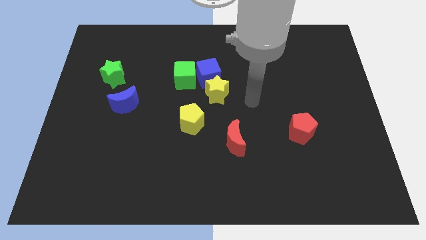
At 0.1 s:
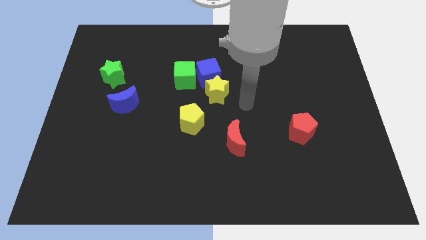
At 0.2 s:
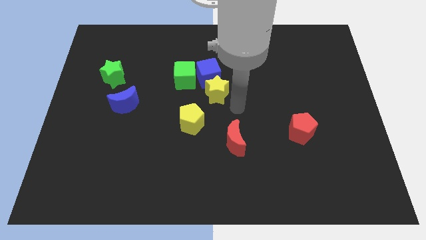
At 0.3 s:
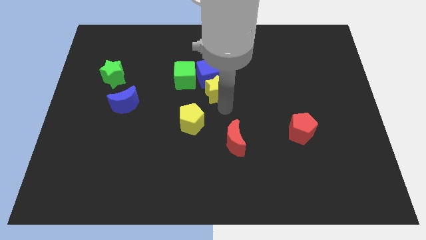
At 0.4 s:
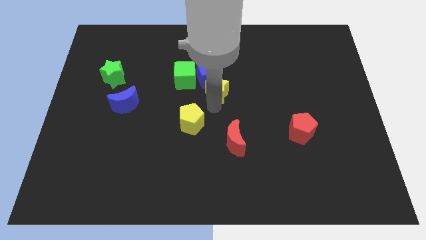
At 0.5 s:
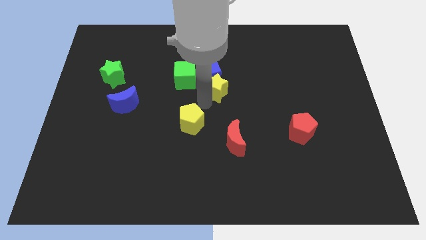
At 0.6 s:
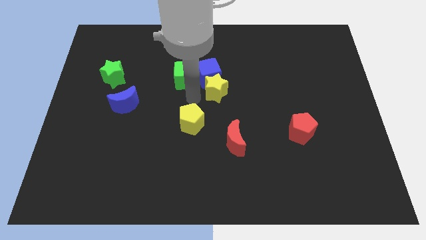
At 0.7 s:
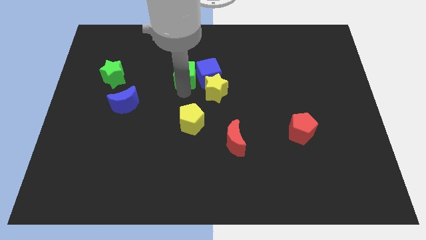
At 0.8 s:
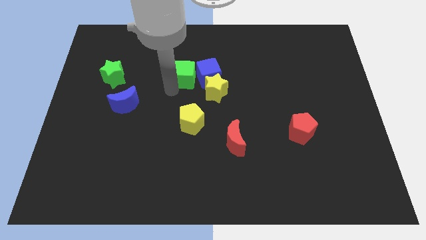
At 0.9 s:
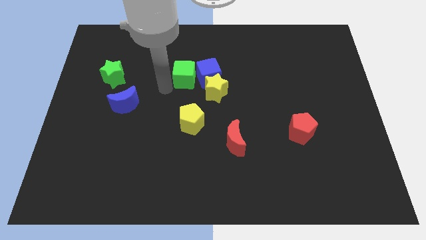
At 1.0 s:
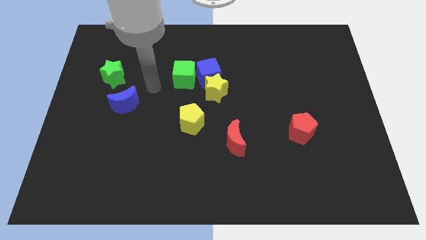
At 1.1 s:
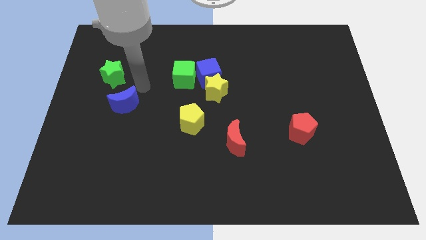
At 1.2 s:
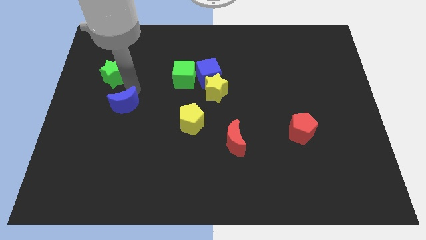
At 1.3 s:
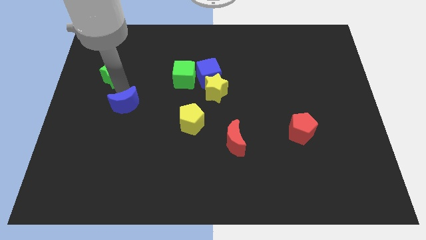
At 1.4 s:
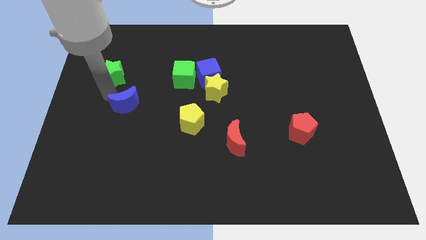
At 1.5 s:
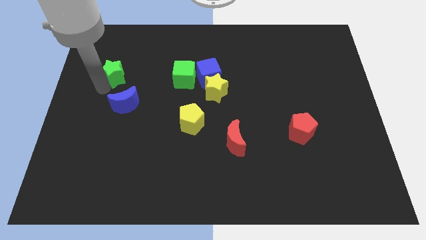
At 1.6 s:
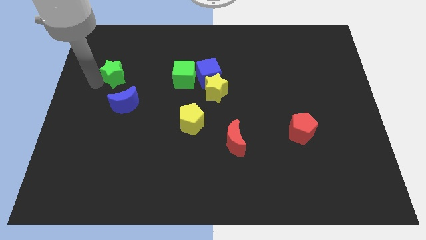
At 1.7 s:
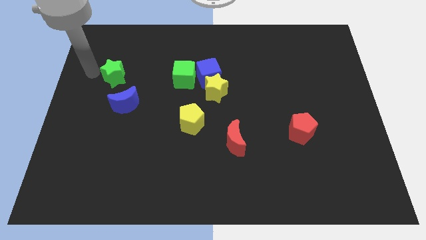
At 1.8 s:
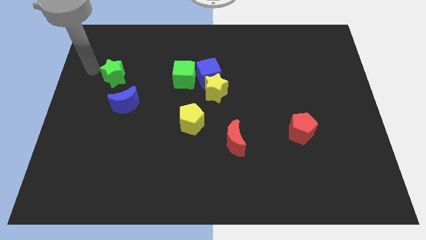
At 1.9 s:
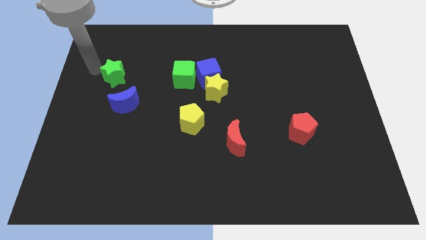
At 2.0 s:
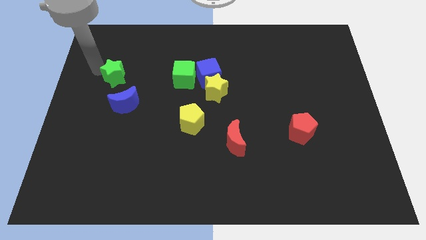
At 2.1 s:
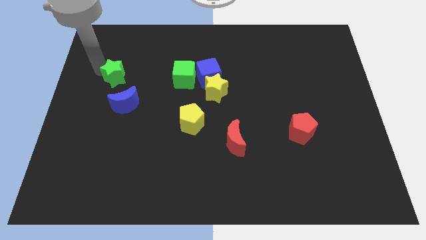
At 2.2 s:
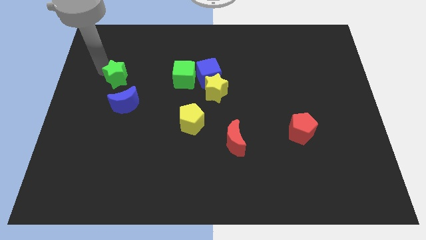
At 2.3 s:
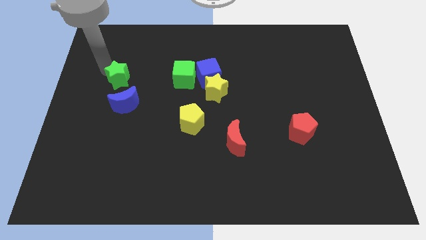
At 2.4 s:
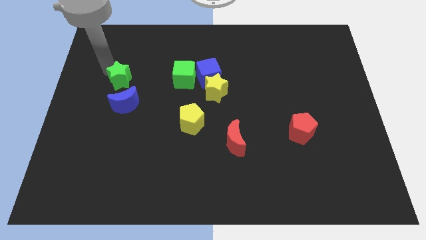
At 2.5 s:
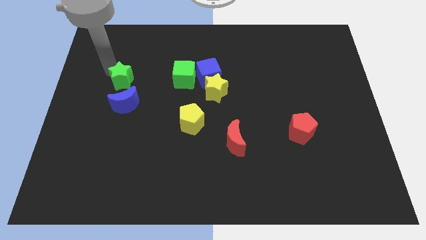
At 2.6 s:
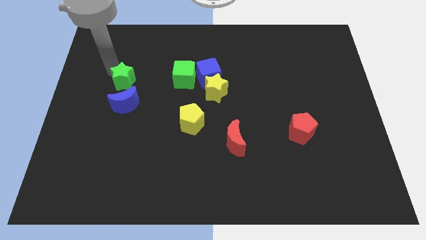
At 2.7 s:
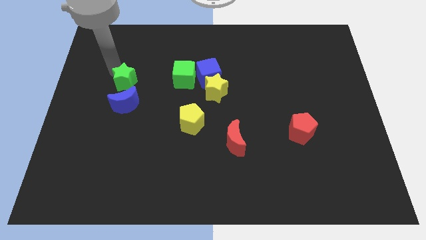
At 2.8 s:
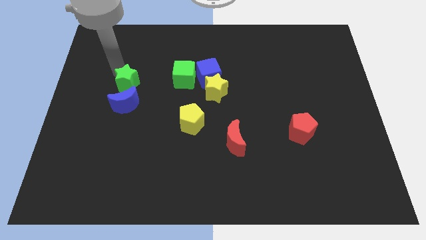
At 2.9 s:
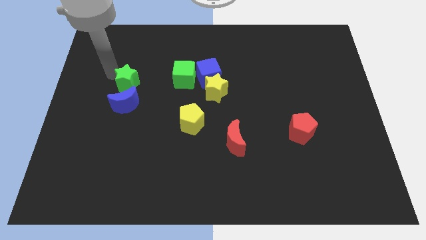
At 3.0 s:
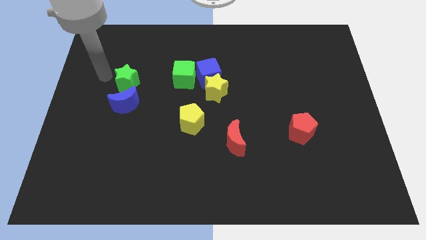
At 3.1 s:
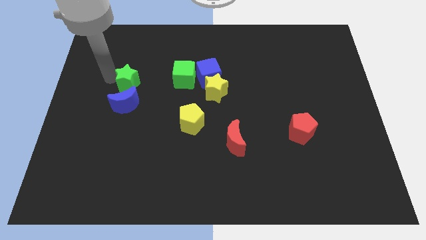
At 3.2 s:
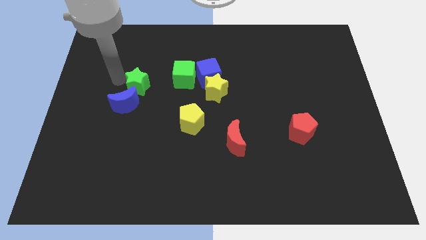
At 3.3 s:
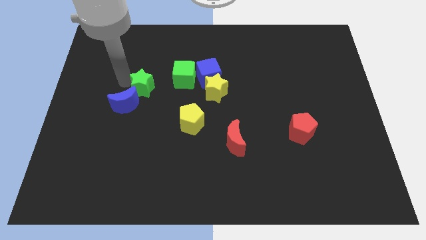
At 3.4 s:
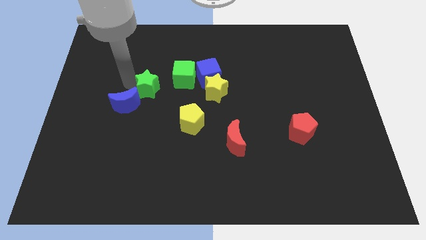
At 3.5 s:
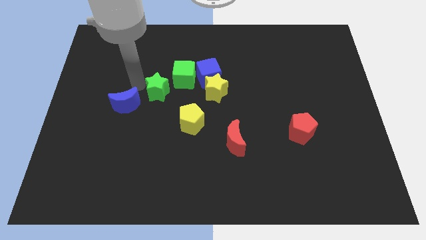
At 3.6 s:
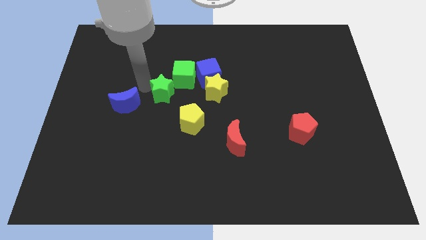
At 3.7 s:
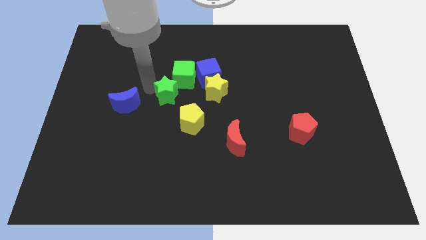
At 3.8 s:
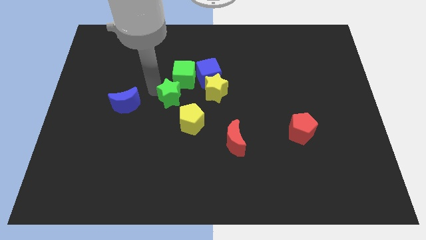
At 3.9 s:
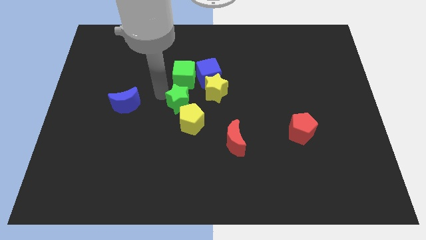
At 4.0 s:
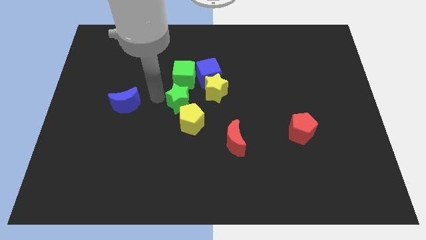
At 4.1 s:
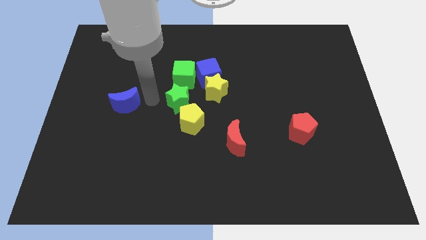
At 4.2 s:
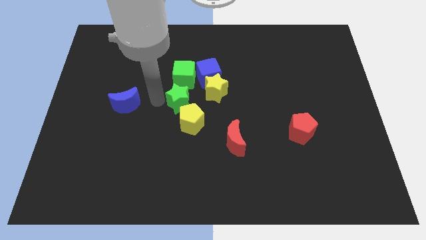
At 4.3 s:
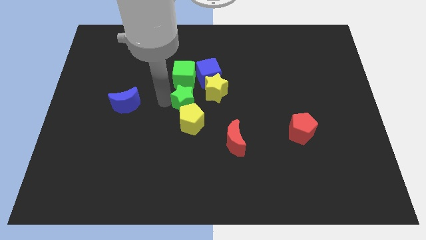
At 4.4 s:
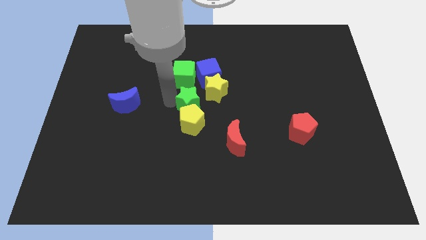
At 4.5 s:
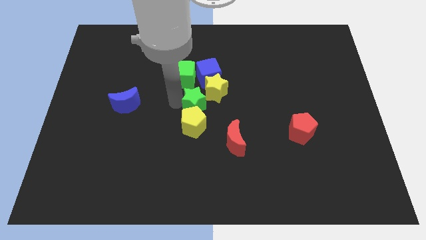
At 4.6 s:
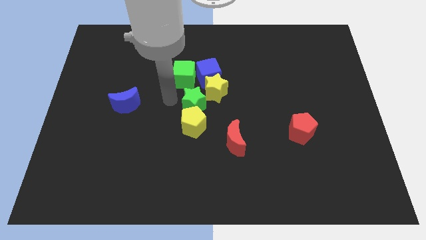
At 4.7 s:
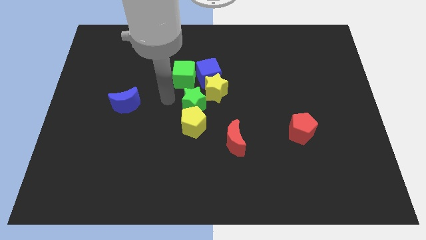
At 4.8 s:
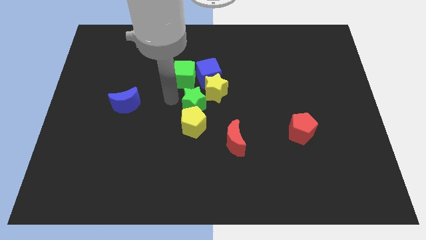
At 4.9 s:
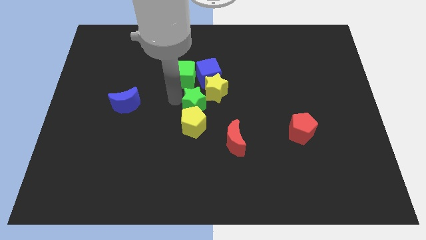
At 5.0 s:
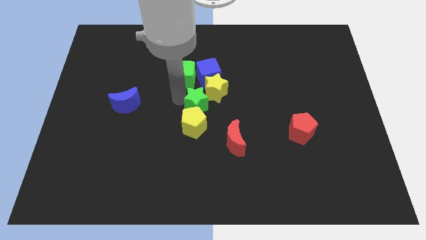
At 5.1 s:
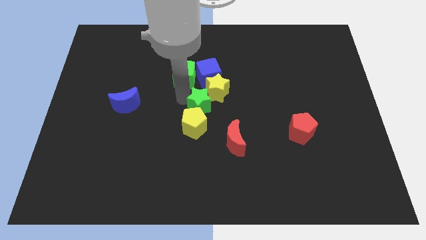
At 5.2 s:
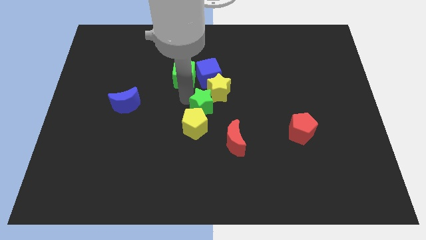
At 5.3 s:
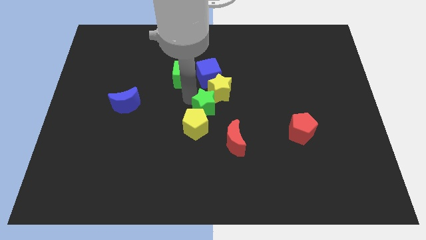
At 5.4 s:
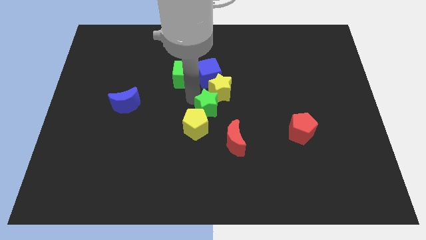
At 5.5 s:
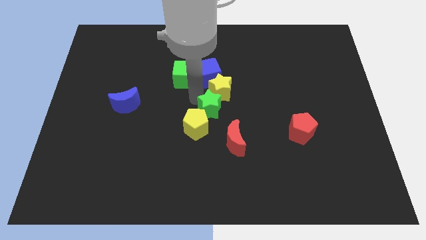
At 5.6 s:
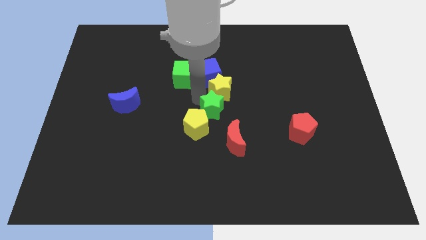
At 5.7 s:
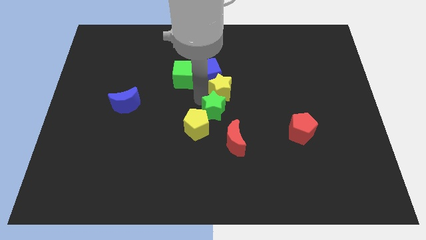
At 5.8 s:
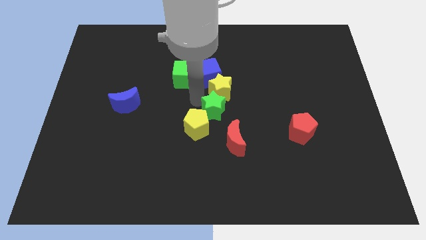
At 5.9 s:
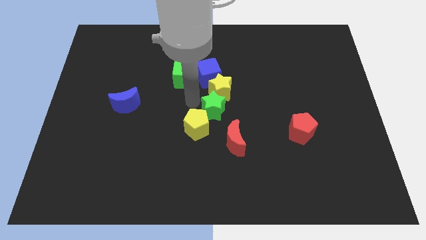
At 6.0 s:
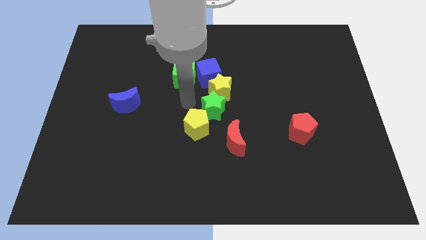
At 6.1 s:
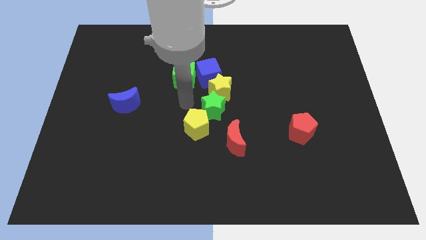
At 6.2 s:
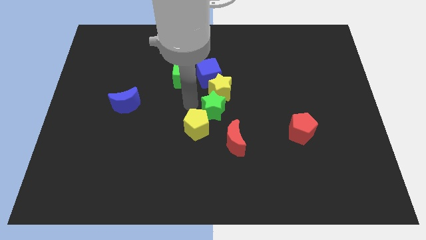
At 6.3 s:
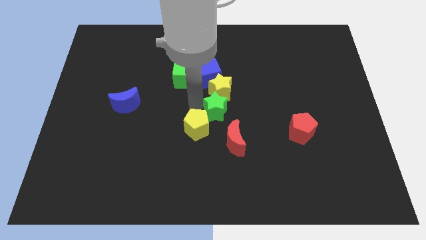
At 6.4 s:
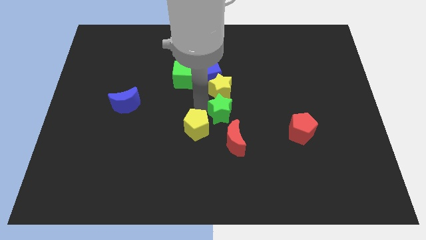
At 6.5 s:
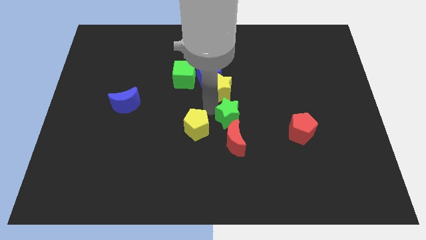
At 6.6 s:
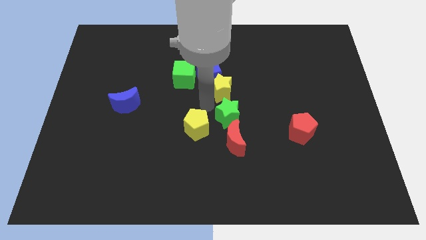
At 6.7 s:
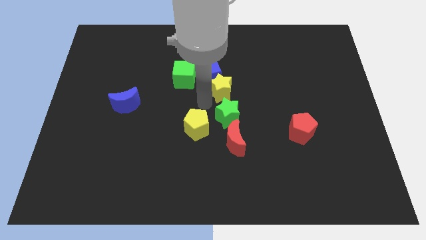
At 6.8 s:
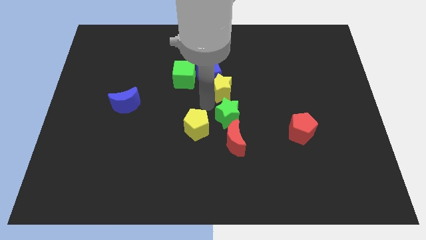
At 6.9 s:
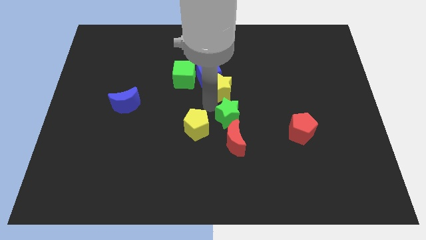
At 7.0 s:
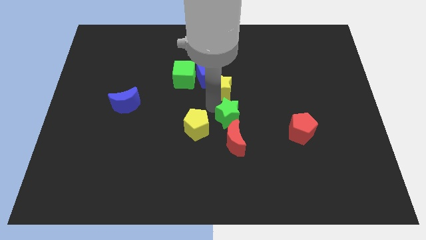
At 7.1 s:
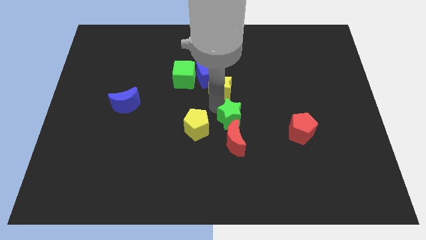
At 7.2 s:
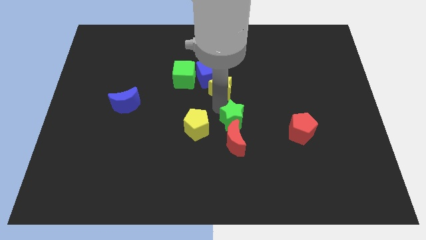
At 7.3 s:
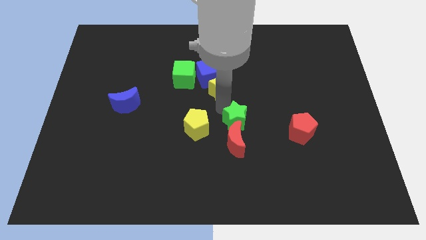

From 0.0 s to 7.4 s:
put the green star to the left side of the red pentagon

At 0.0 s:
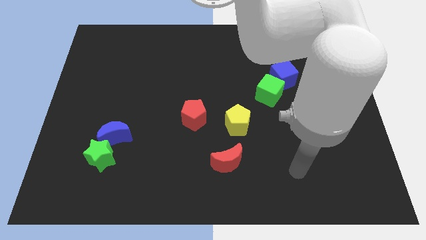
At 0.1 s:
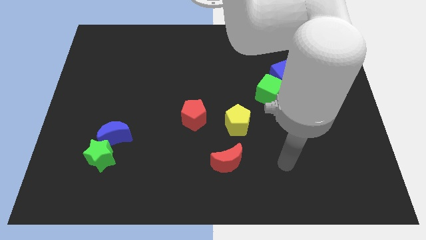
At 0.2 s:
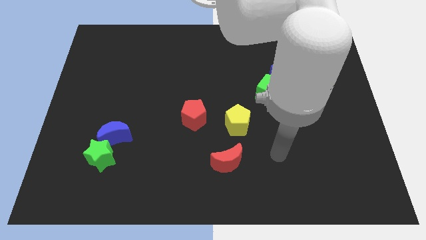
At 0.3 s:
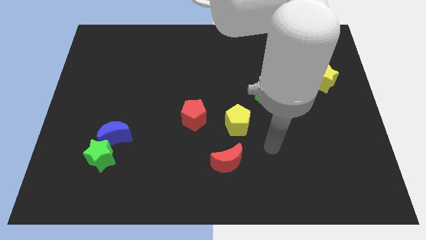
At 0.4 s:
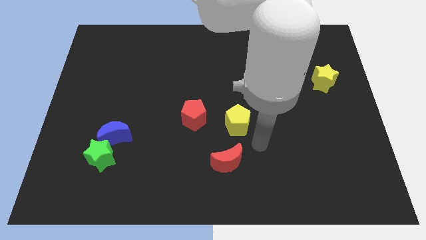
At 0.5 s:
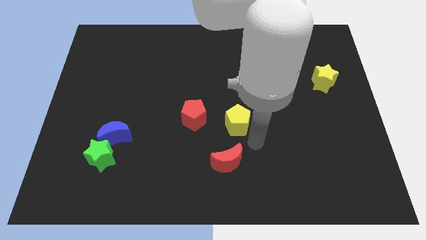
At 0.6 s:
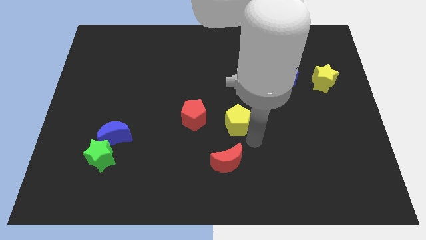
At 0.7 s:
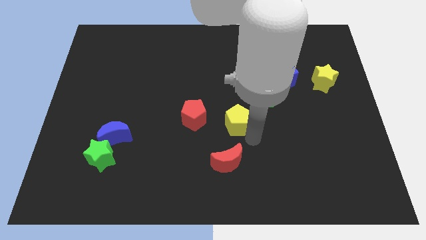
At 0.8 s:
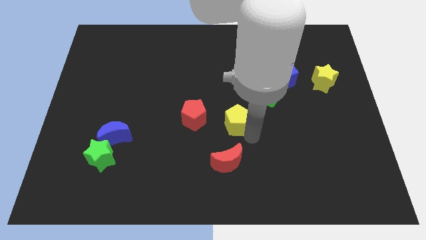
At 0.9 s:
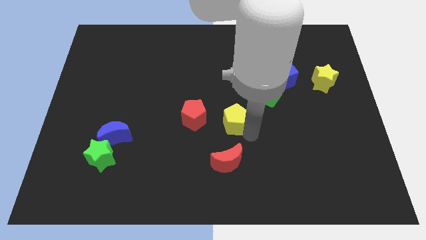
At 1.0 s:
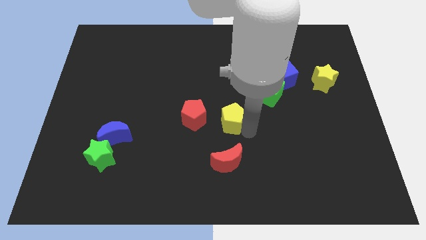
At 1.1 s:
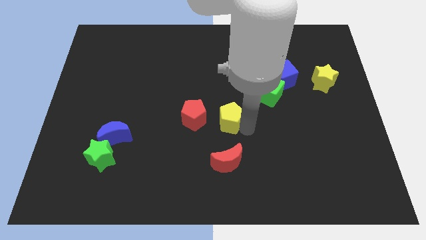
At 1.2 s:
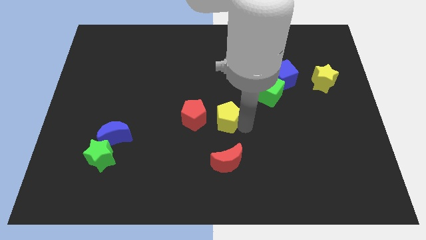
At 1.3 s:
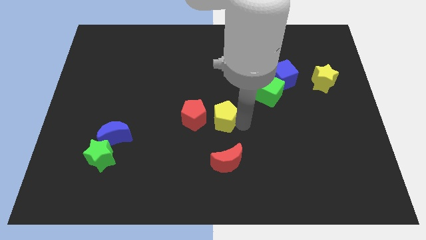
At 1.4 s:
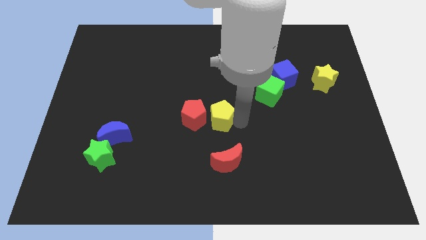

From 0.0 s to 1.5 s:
put the yellow pentagon to the top right side of the red pentagon
